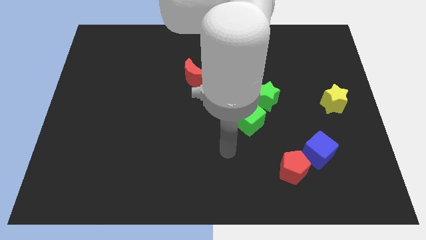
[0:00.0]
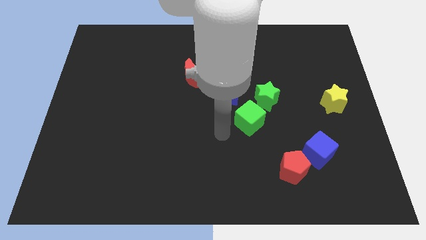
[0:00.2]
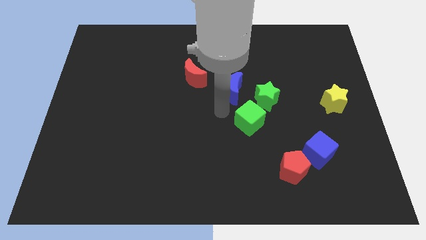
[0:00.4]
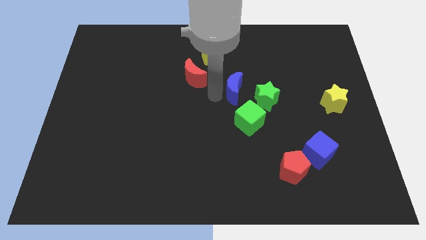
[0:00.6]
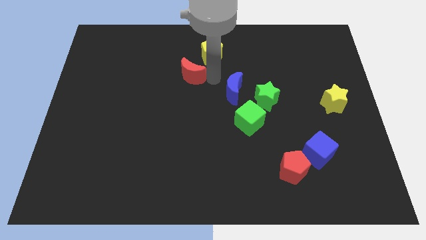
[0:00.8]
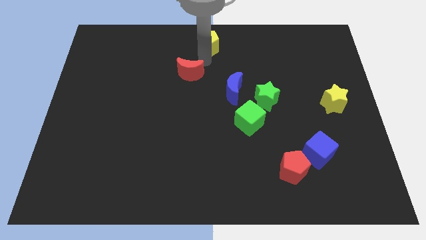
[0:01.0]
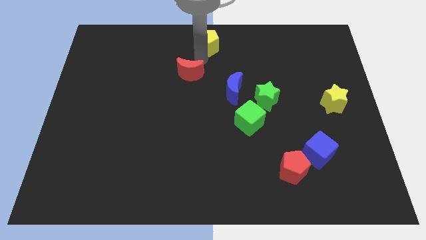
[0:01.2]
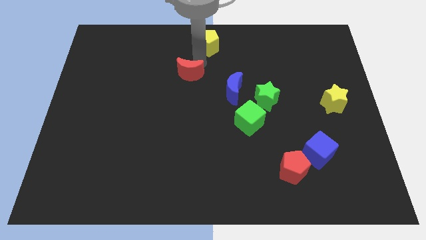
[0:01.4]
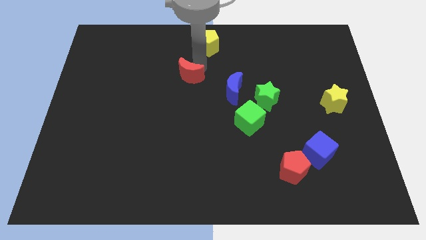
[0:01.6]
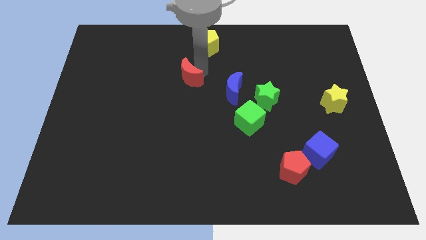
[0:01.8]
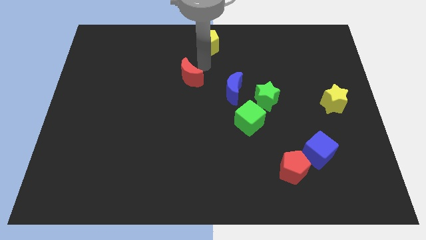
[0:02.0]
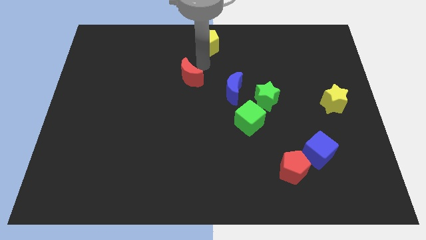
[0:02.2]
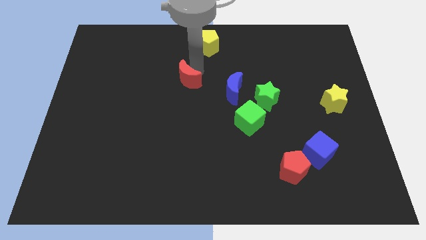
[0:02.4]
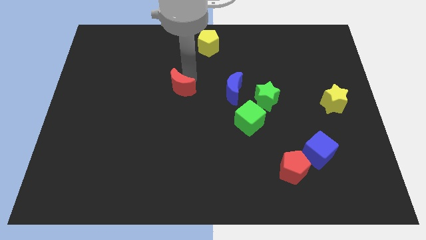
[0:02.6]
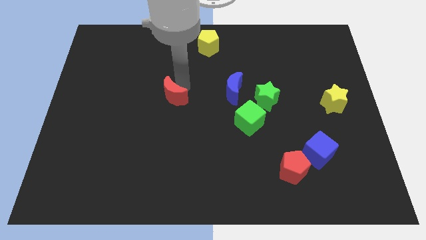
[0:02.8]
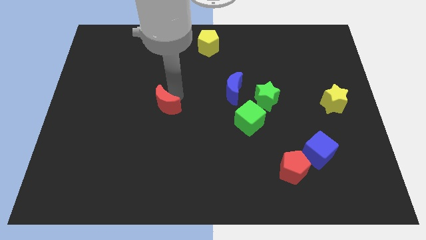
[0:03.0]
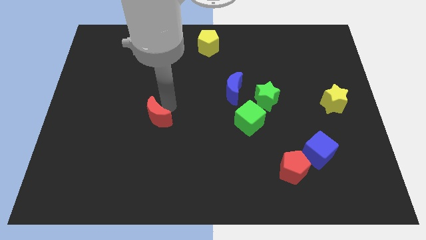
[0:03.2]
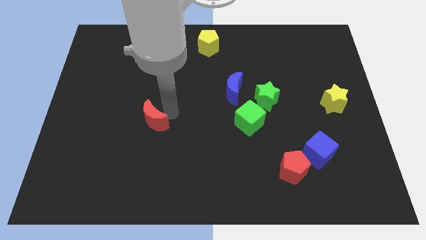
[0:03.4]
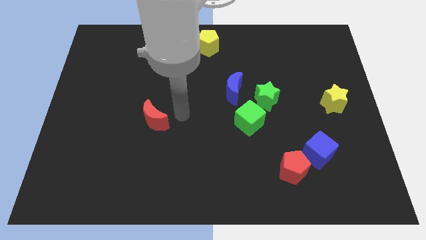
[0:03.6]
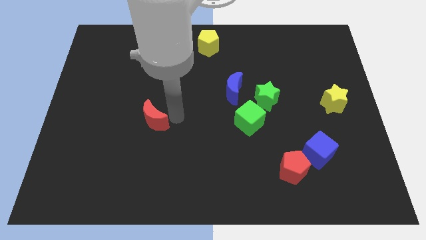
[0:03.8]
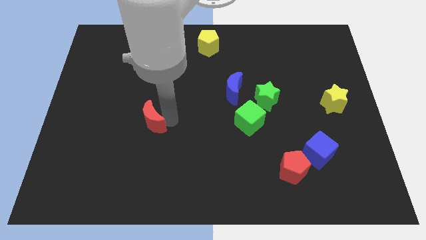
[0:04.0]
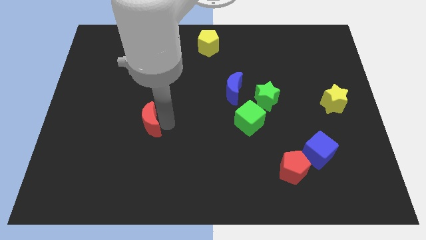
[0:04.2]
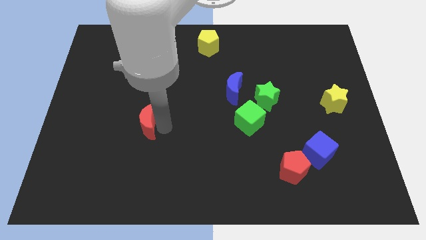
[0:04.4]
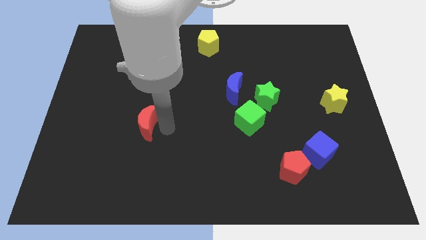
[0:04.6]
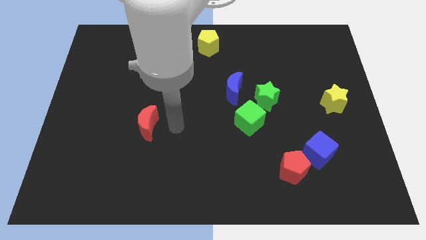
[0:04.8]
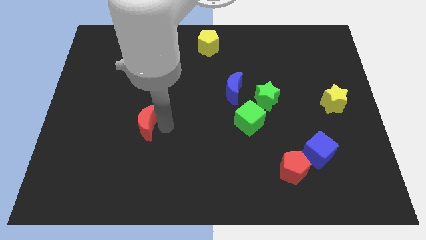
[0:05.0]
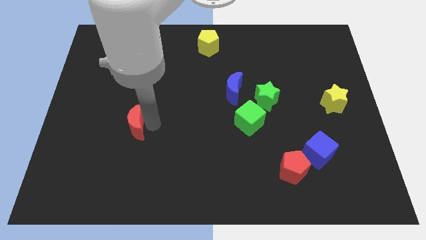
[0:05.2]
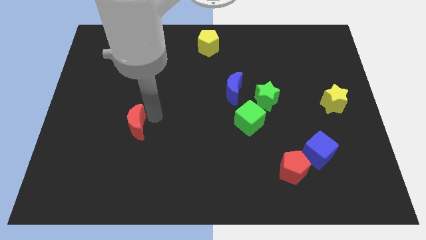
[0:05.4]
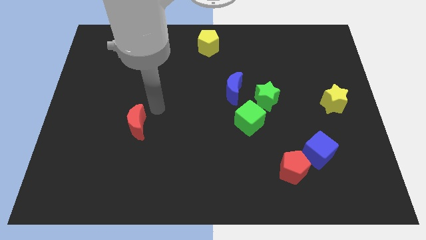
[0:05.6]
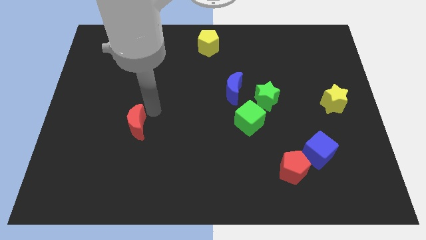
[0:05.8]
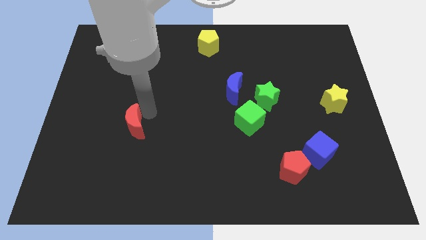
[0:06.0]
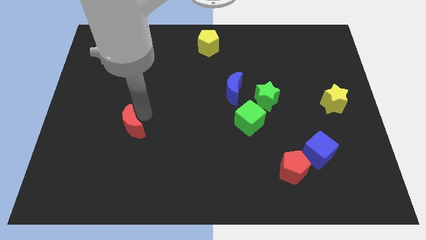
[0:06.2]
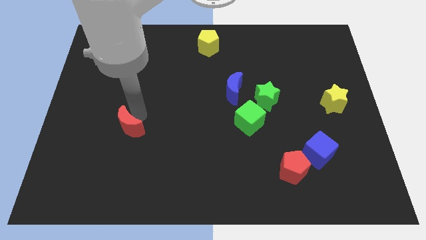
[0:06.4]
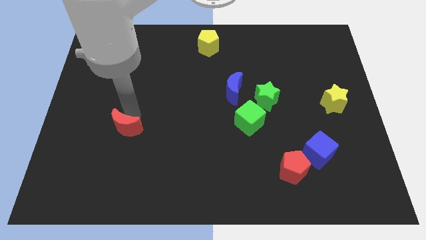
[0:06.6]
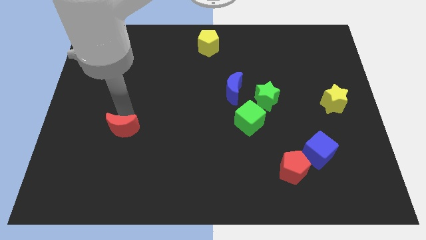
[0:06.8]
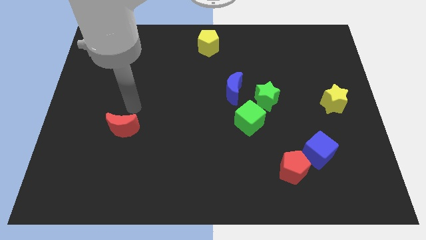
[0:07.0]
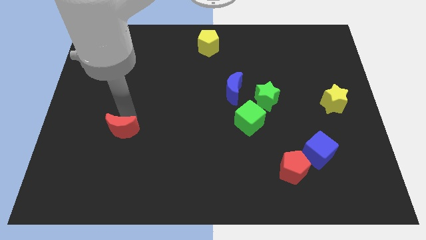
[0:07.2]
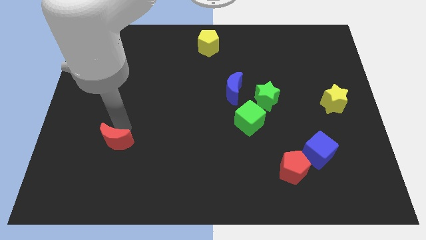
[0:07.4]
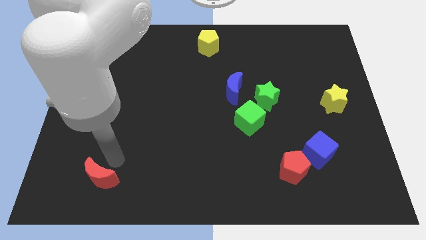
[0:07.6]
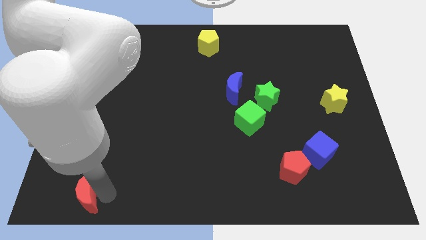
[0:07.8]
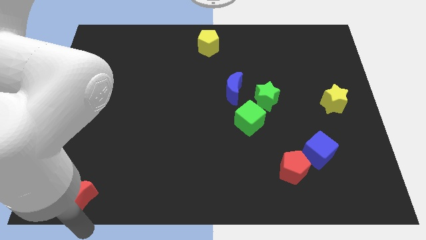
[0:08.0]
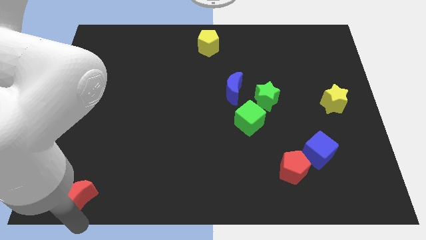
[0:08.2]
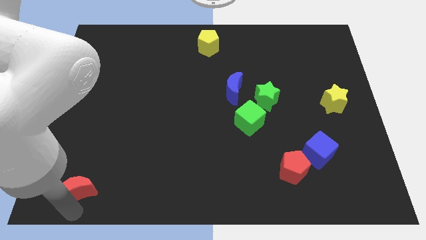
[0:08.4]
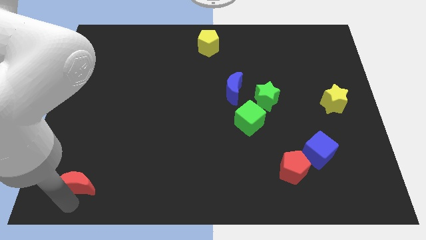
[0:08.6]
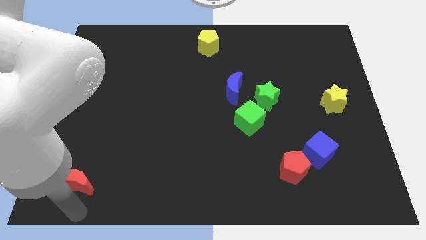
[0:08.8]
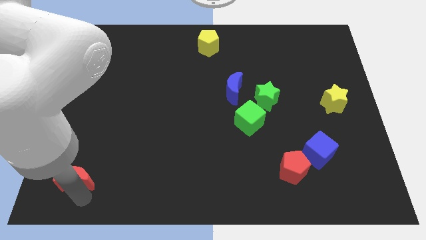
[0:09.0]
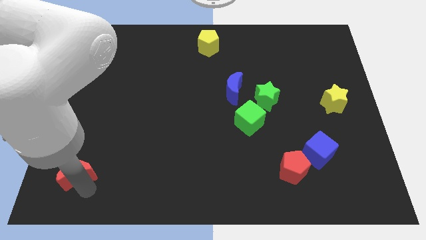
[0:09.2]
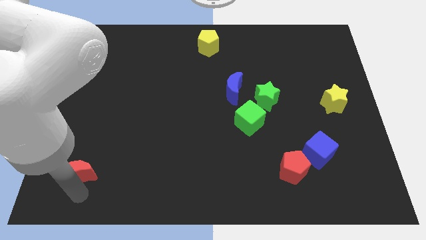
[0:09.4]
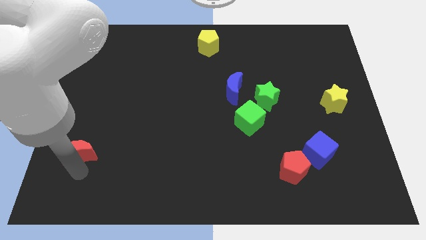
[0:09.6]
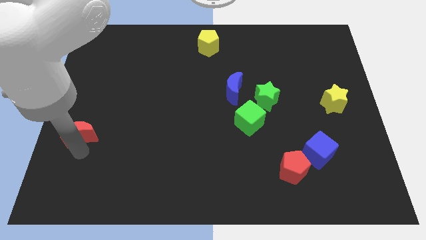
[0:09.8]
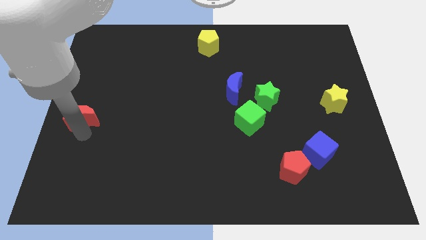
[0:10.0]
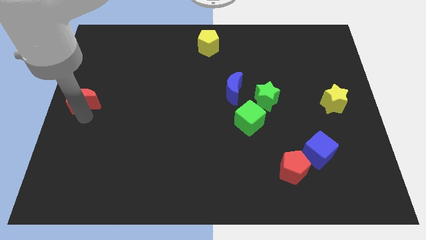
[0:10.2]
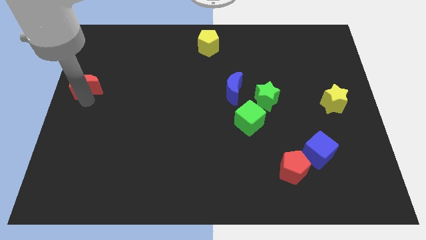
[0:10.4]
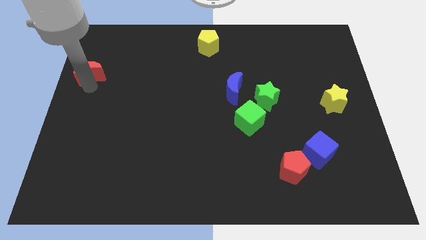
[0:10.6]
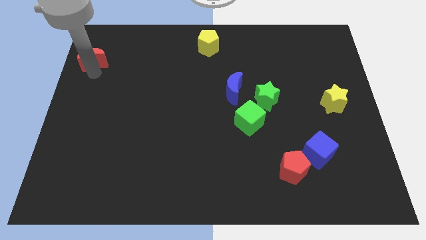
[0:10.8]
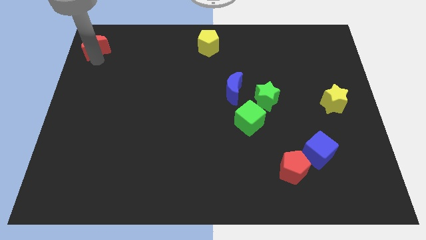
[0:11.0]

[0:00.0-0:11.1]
slide the red moon to the top left of the board

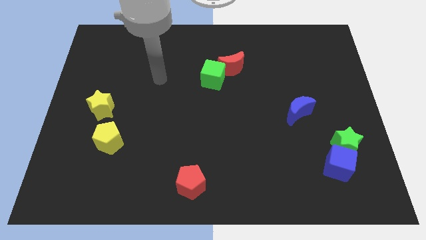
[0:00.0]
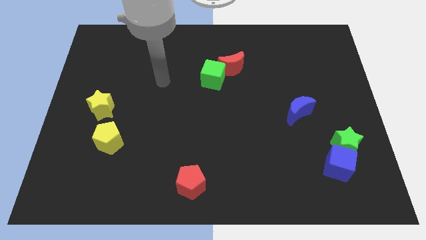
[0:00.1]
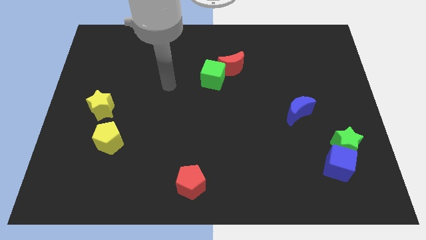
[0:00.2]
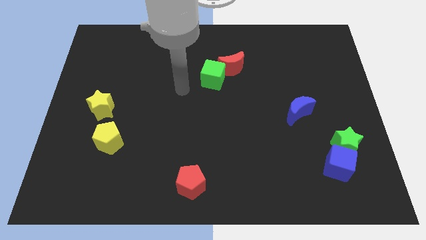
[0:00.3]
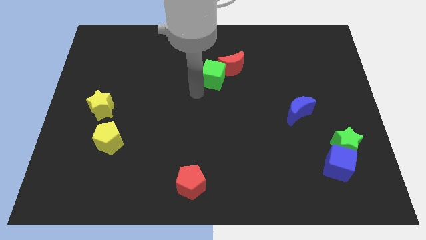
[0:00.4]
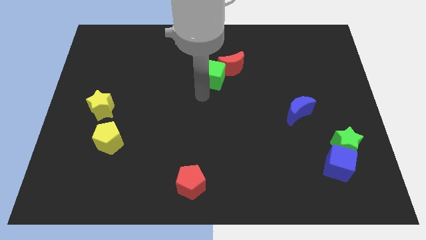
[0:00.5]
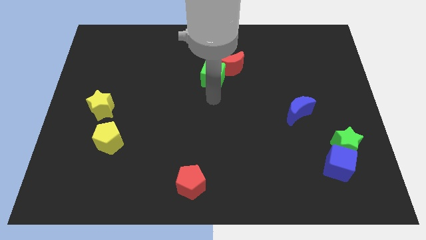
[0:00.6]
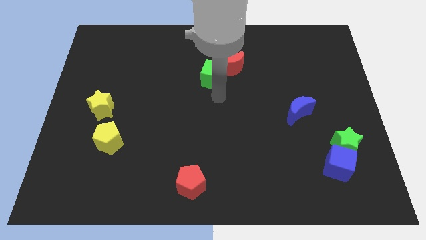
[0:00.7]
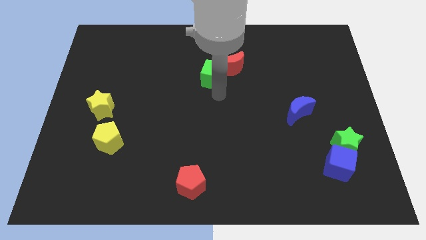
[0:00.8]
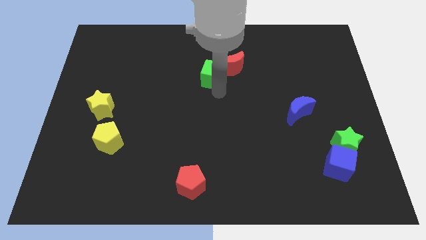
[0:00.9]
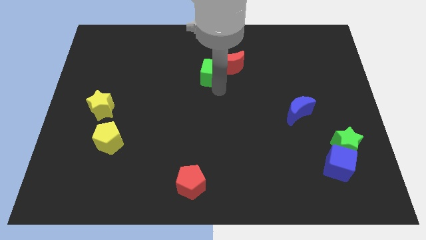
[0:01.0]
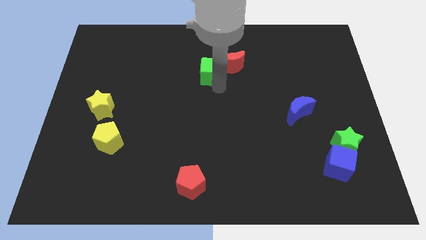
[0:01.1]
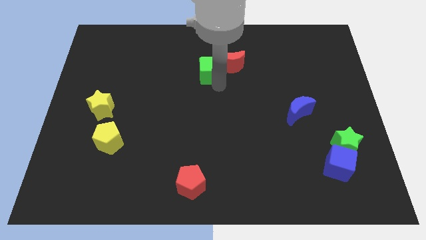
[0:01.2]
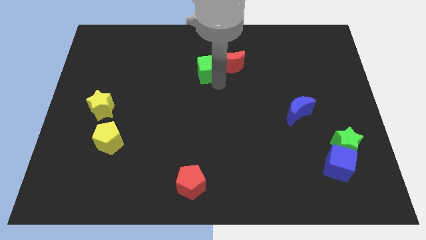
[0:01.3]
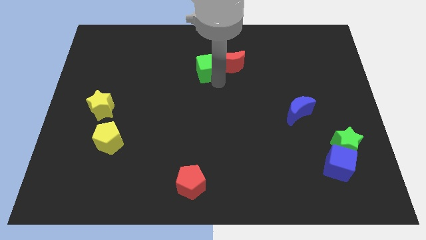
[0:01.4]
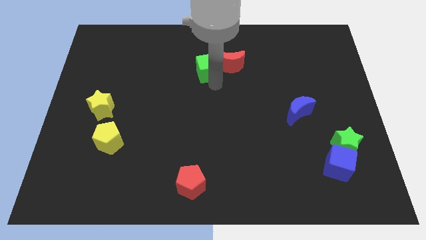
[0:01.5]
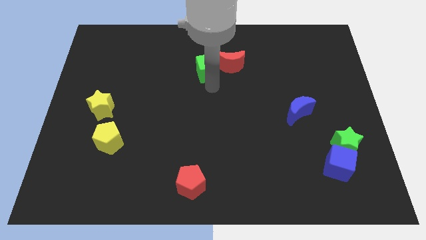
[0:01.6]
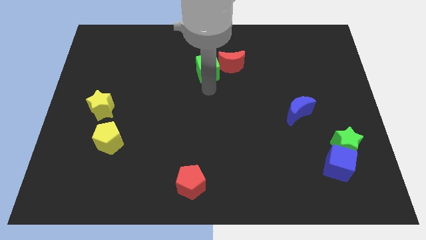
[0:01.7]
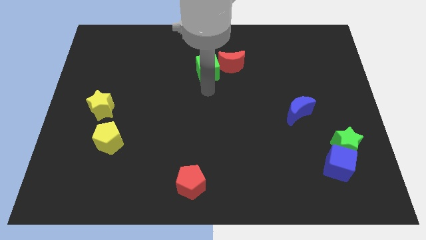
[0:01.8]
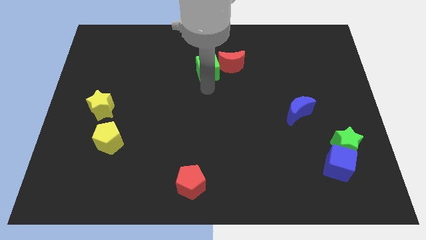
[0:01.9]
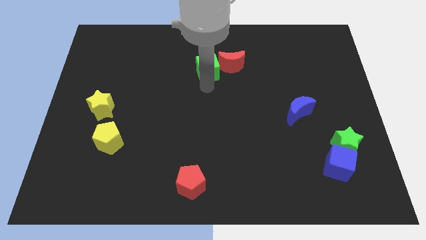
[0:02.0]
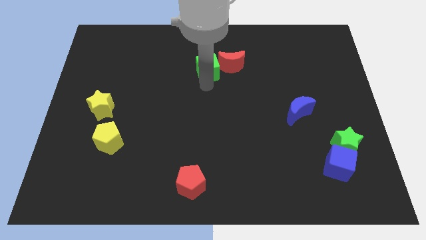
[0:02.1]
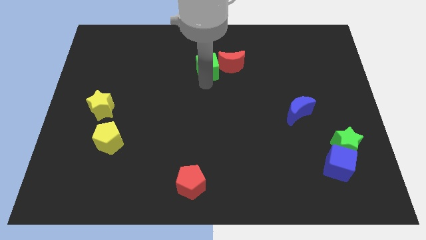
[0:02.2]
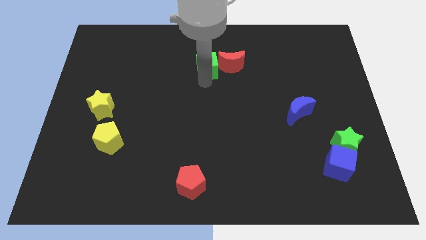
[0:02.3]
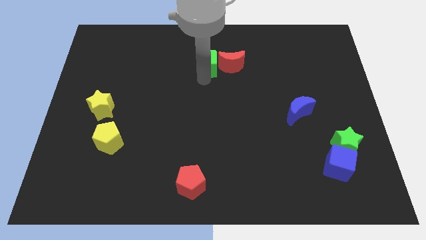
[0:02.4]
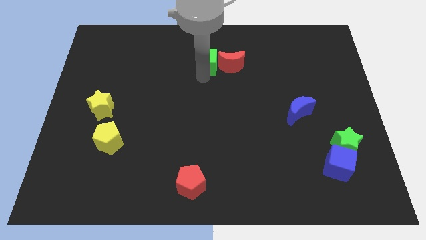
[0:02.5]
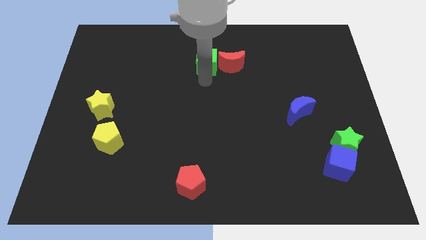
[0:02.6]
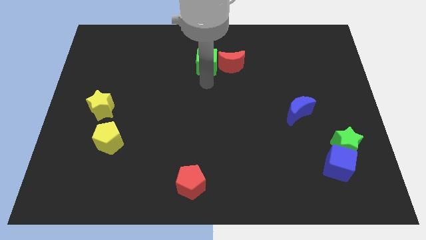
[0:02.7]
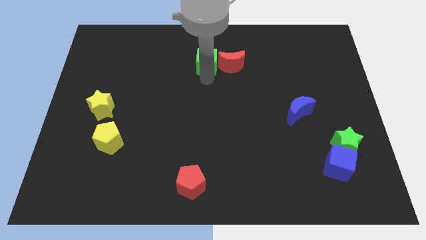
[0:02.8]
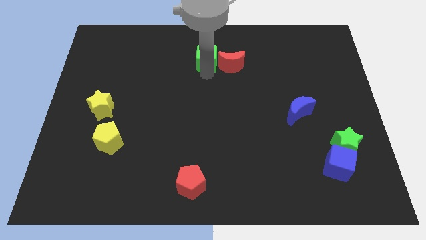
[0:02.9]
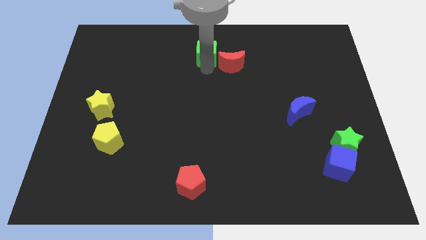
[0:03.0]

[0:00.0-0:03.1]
put the green cube to the top
